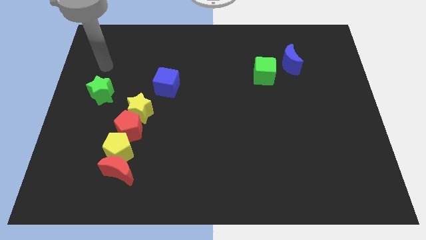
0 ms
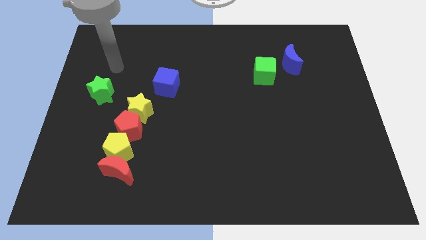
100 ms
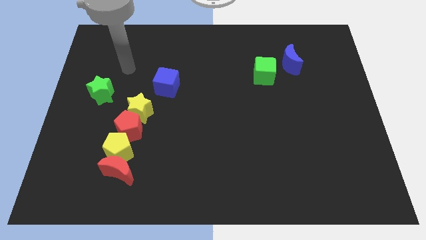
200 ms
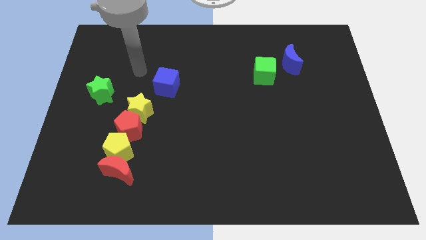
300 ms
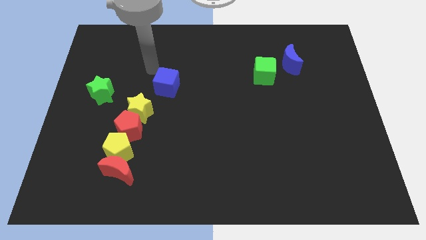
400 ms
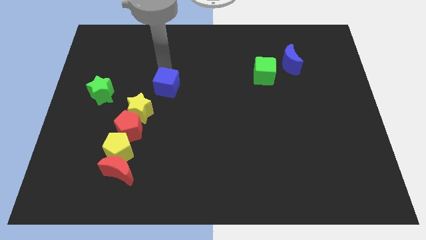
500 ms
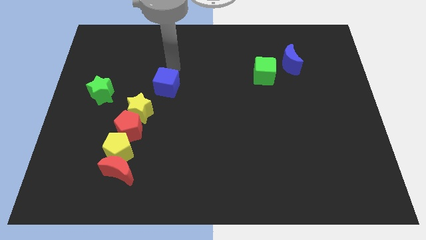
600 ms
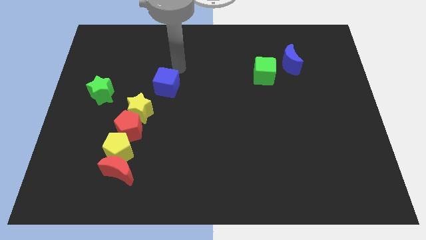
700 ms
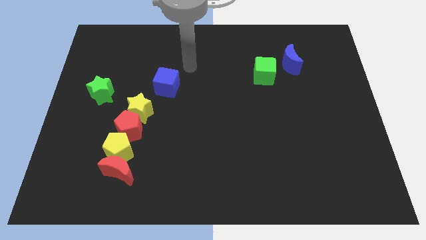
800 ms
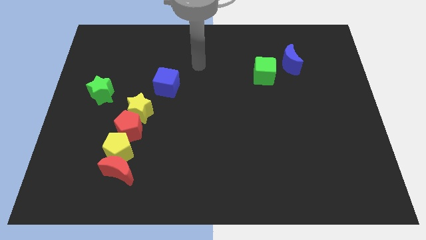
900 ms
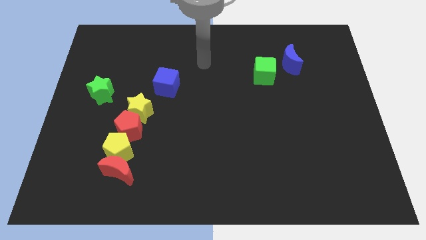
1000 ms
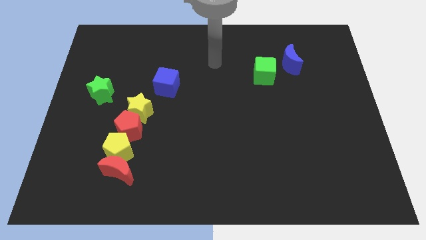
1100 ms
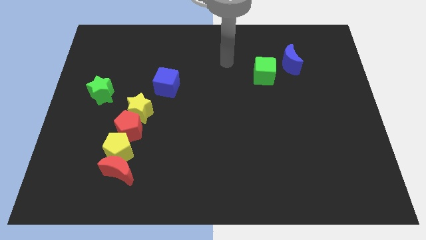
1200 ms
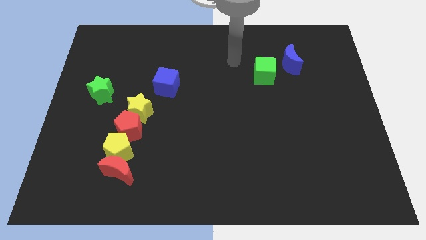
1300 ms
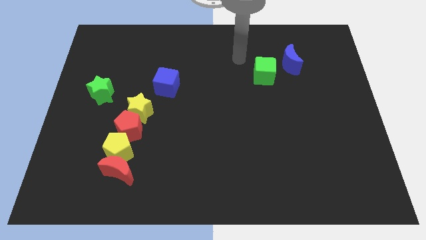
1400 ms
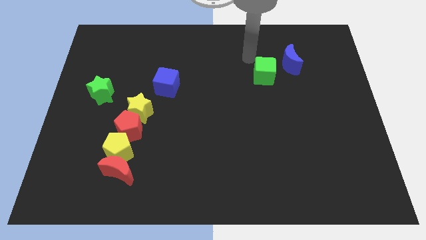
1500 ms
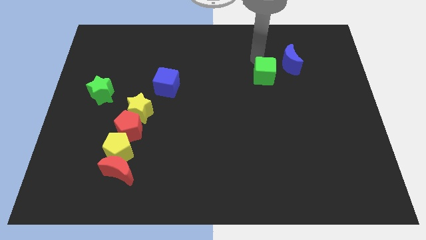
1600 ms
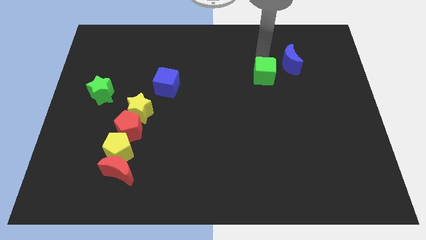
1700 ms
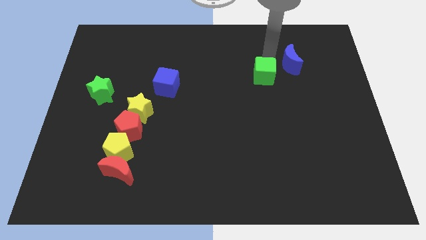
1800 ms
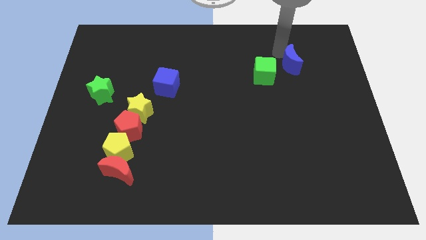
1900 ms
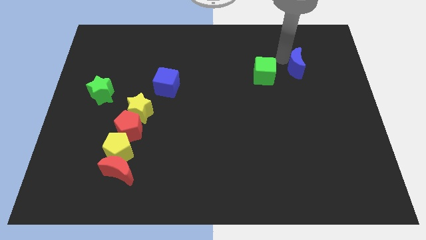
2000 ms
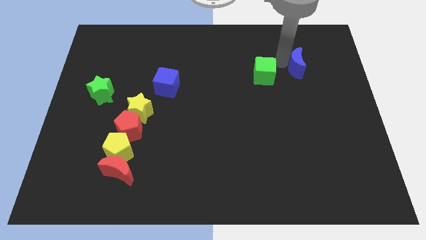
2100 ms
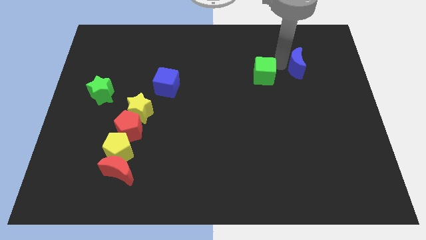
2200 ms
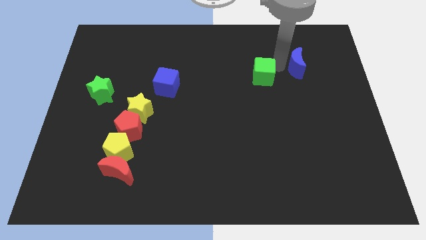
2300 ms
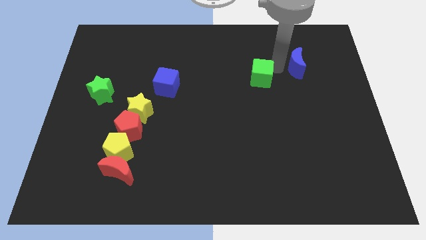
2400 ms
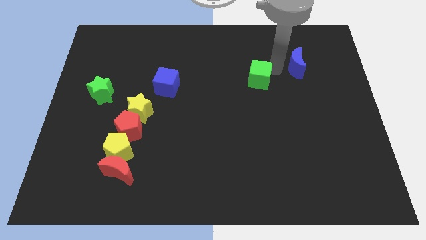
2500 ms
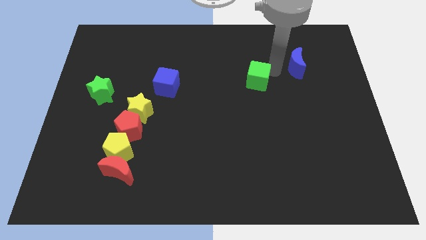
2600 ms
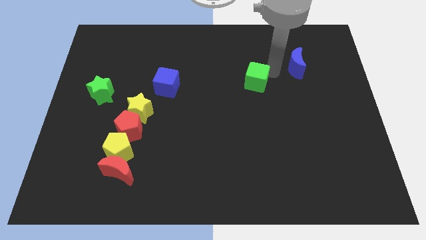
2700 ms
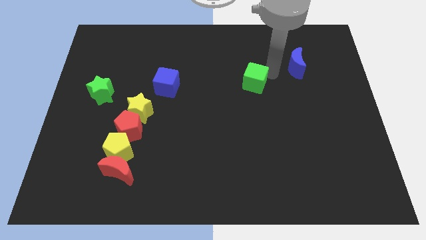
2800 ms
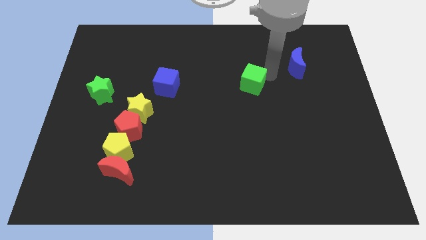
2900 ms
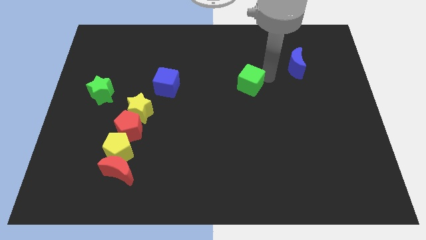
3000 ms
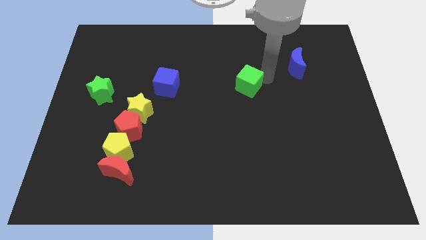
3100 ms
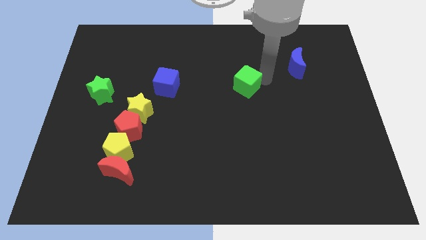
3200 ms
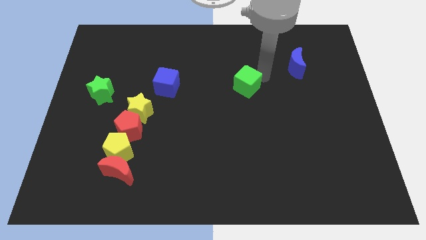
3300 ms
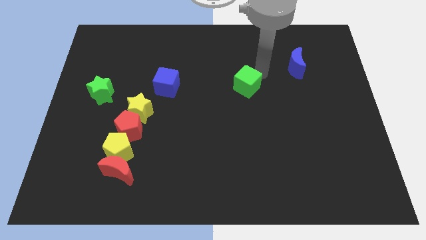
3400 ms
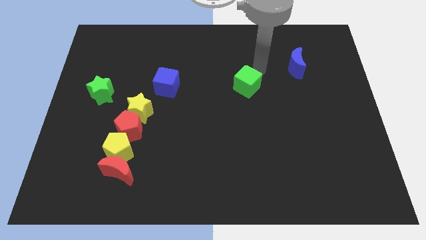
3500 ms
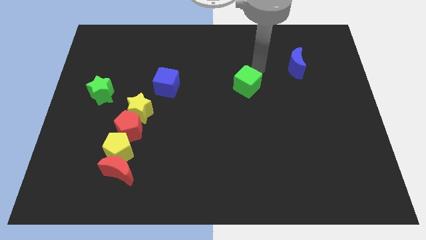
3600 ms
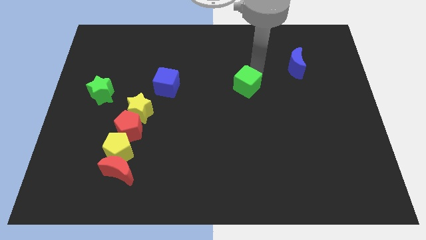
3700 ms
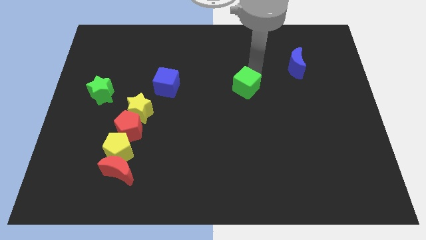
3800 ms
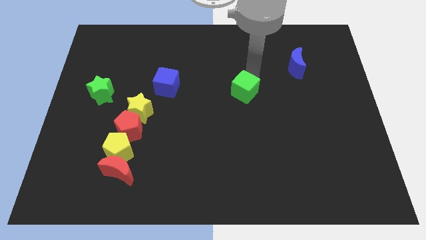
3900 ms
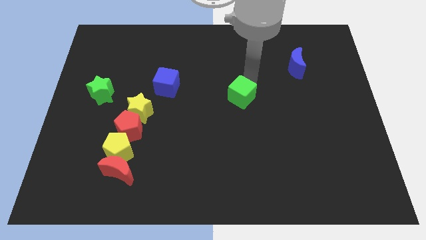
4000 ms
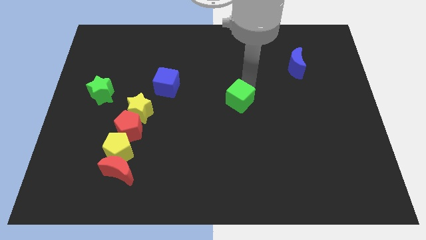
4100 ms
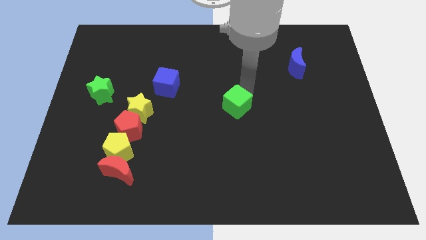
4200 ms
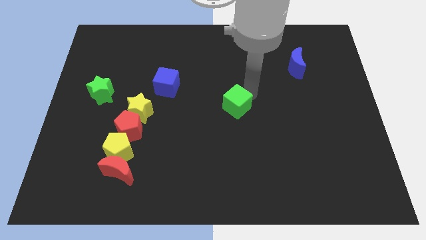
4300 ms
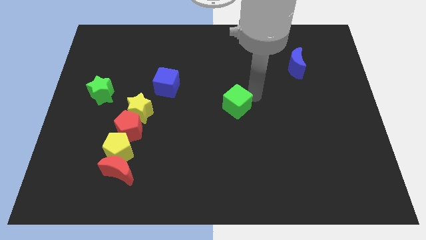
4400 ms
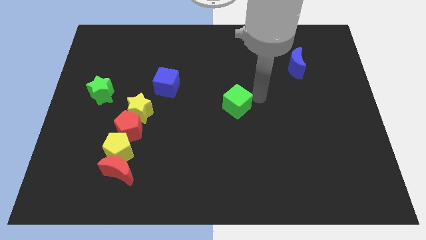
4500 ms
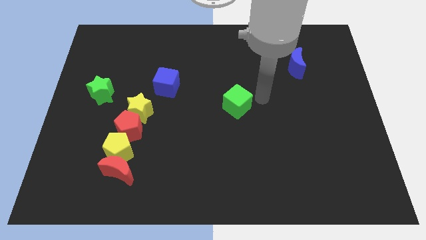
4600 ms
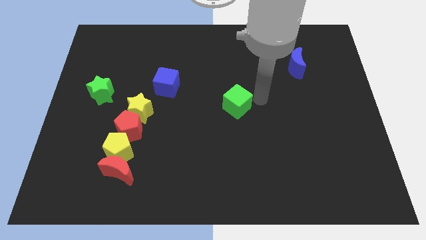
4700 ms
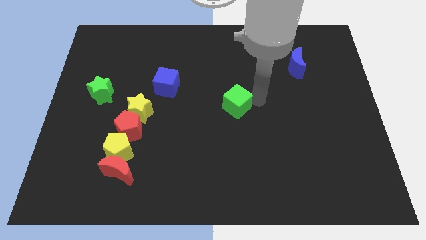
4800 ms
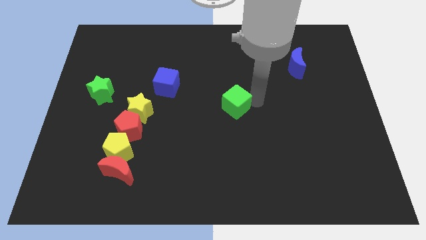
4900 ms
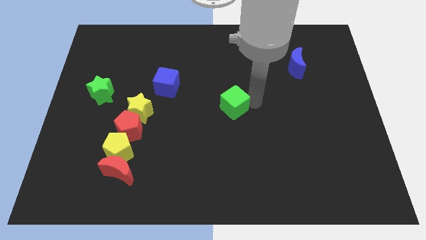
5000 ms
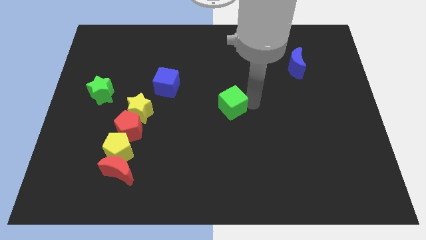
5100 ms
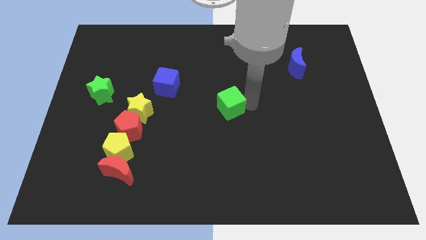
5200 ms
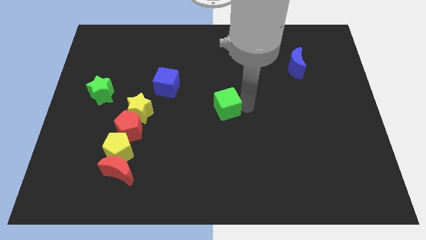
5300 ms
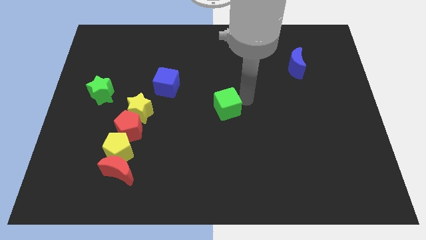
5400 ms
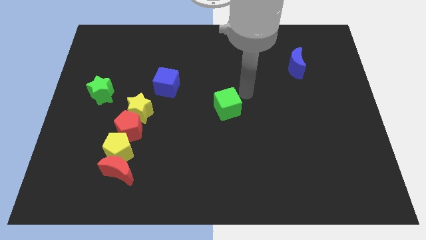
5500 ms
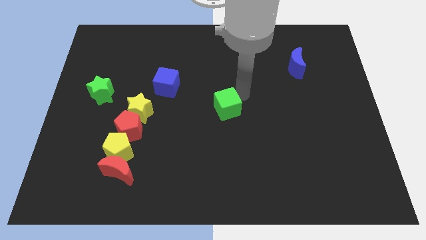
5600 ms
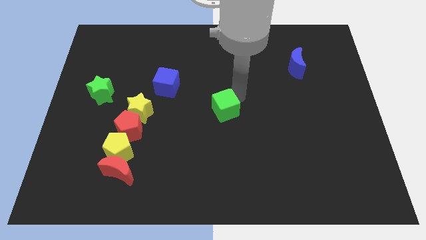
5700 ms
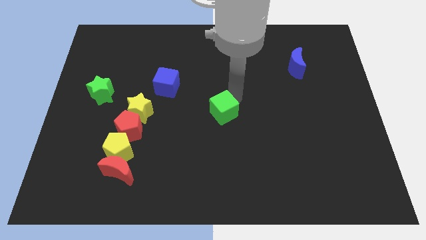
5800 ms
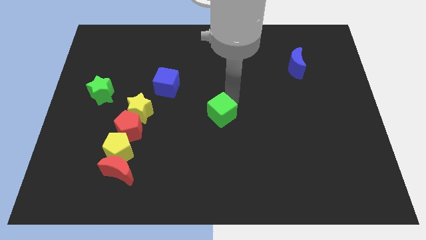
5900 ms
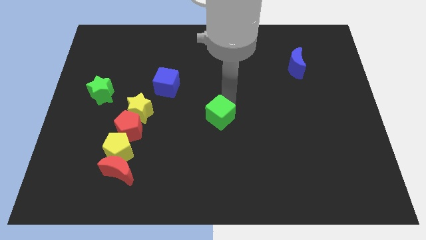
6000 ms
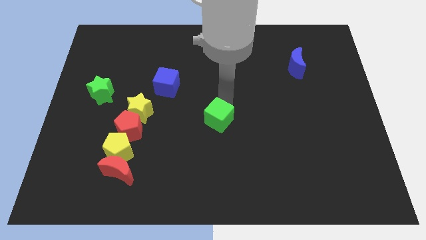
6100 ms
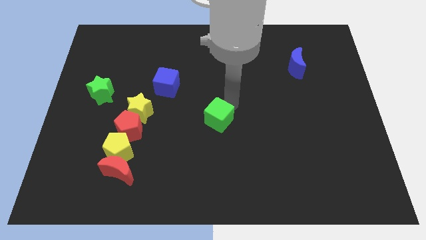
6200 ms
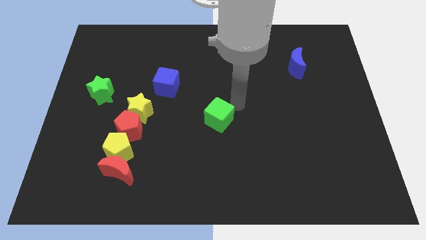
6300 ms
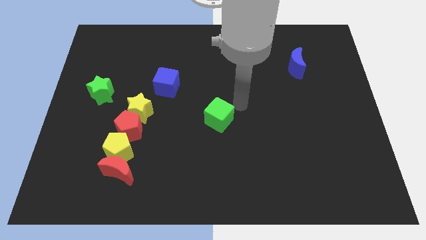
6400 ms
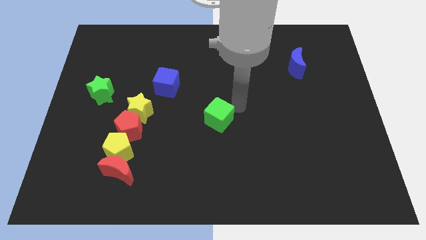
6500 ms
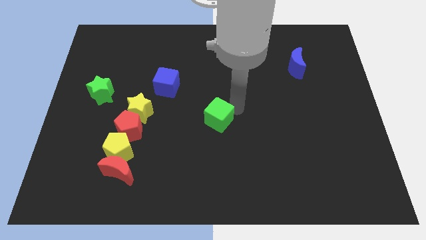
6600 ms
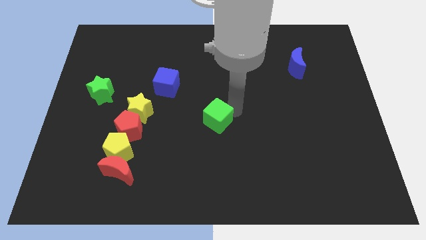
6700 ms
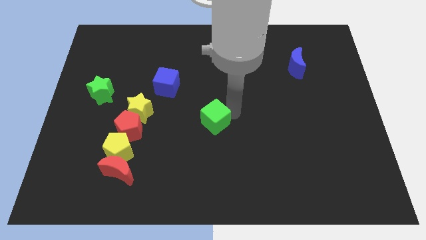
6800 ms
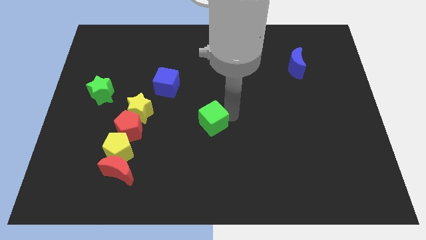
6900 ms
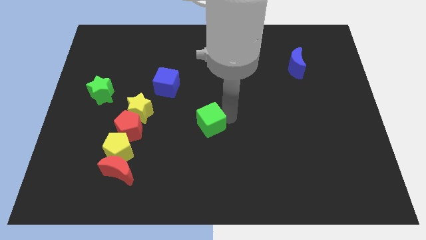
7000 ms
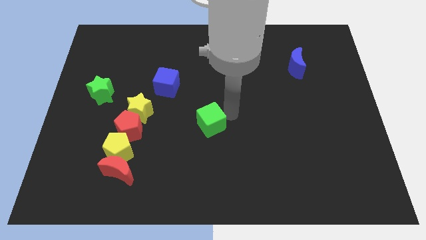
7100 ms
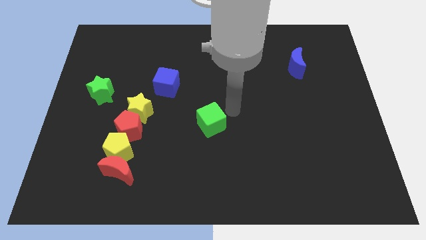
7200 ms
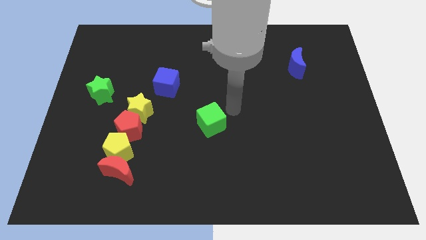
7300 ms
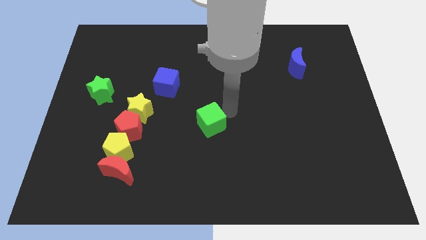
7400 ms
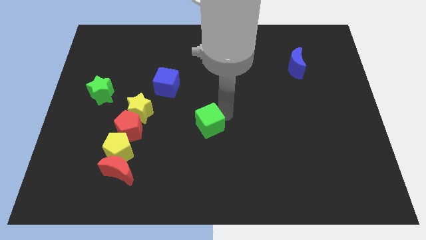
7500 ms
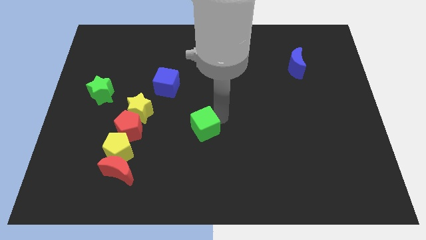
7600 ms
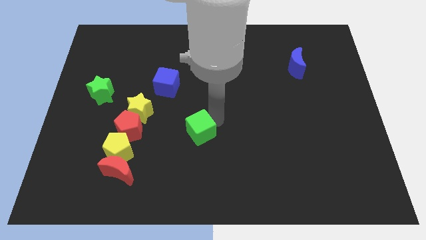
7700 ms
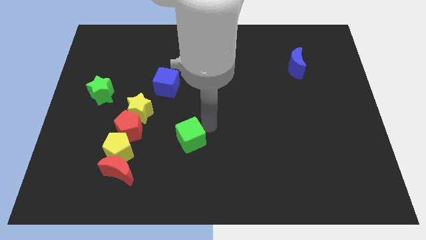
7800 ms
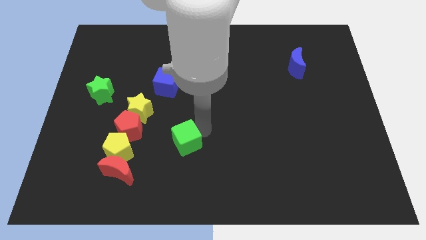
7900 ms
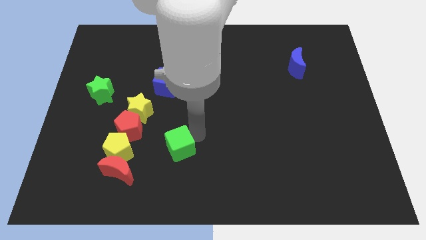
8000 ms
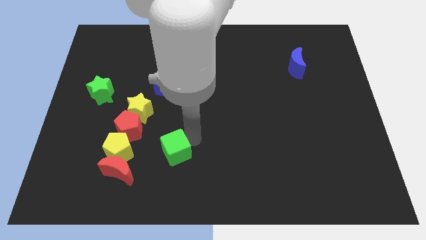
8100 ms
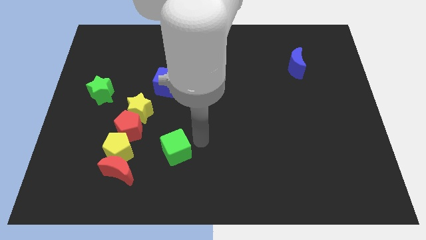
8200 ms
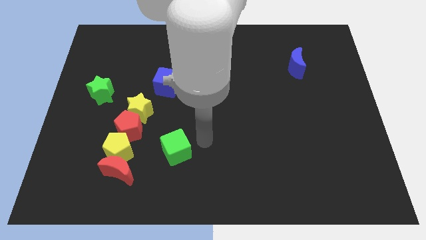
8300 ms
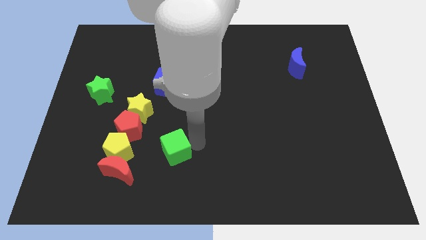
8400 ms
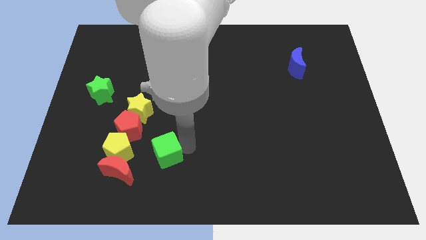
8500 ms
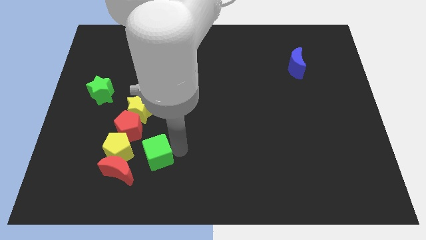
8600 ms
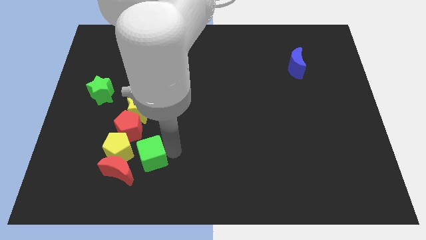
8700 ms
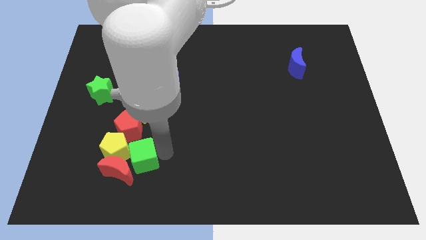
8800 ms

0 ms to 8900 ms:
move the green cube close to the red moon
